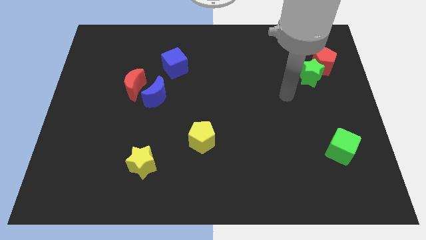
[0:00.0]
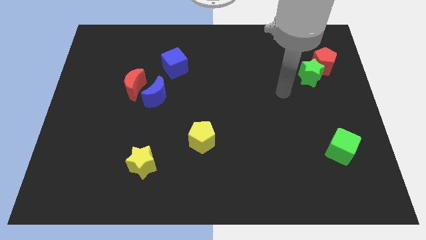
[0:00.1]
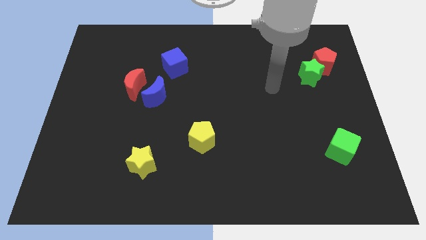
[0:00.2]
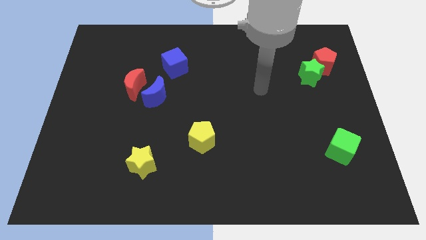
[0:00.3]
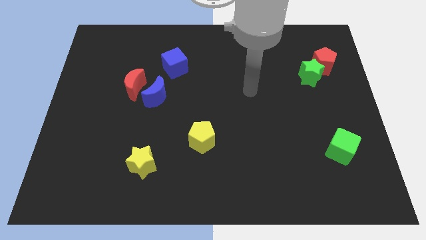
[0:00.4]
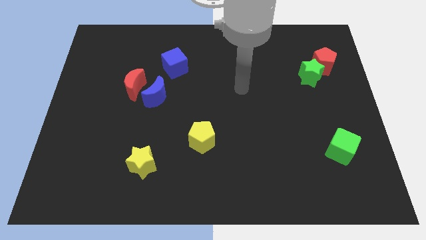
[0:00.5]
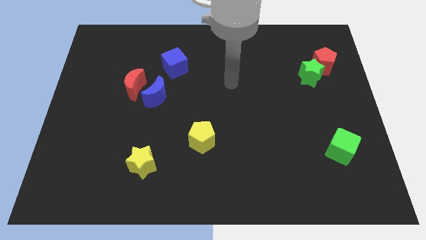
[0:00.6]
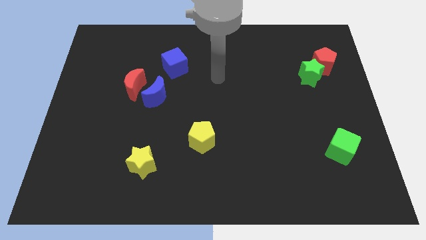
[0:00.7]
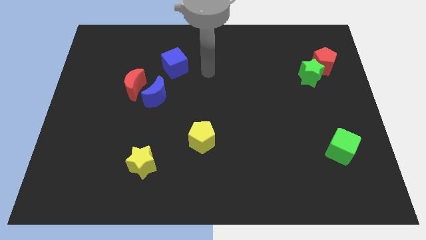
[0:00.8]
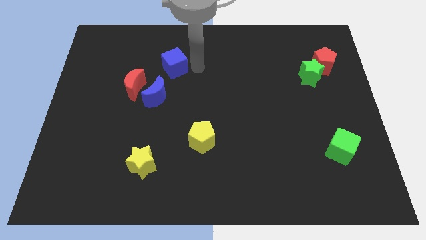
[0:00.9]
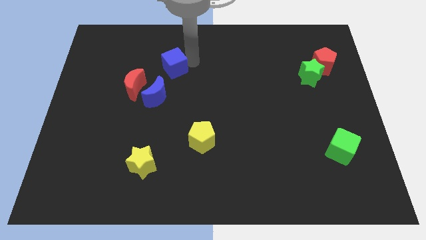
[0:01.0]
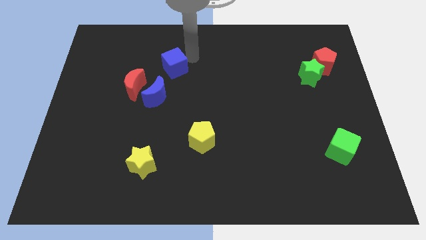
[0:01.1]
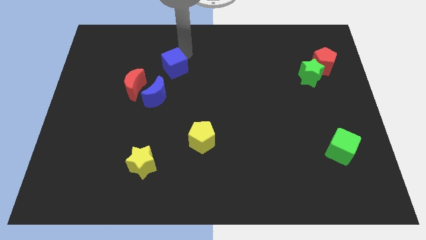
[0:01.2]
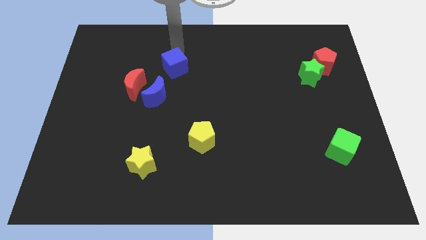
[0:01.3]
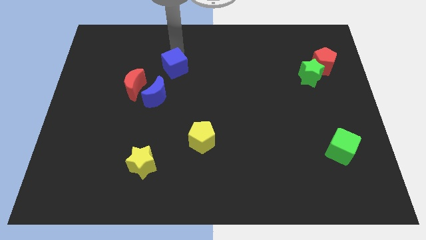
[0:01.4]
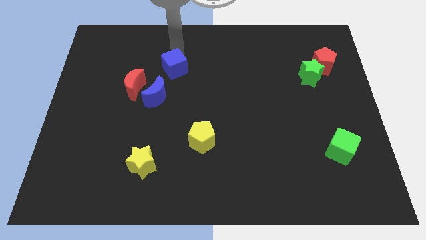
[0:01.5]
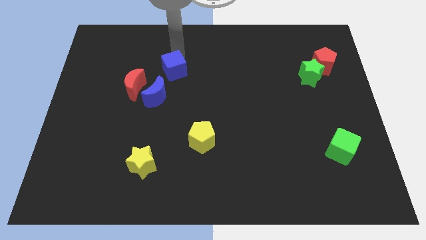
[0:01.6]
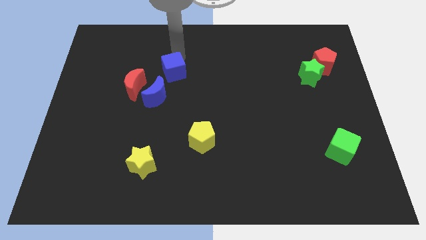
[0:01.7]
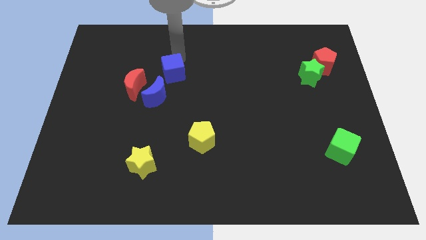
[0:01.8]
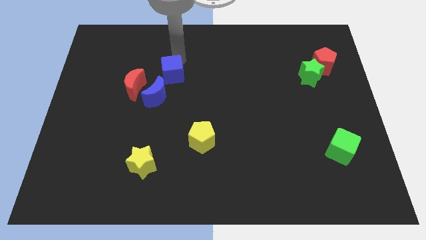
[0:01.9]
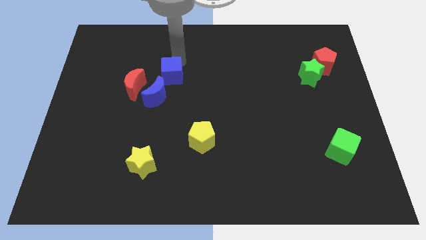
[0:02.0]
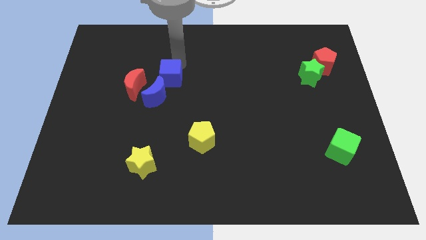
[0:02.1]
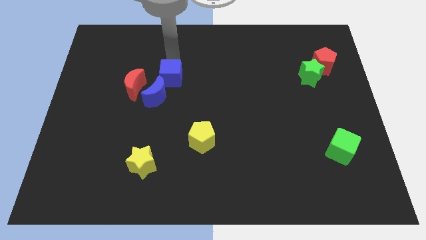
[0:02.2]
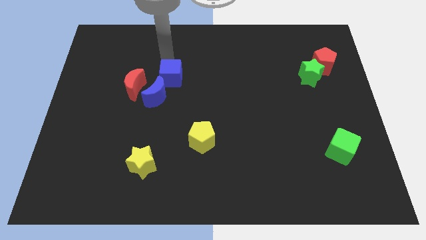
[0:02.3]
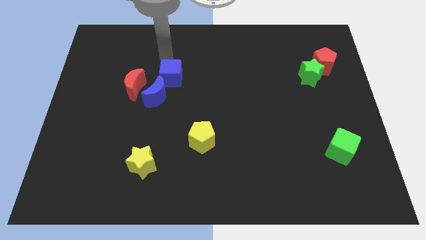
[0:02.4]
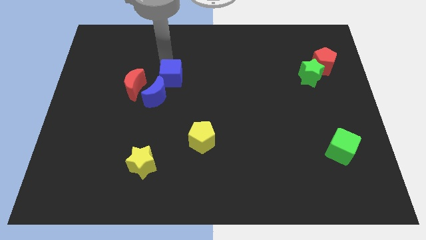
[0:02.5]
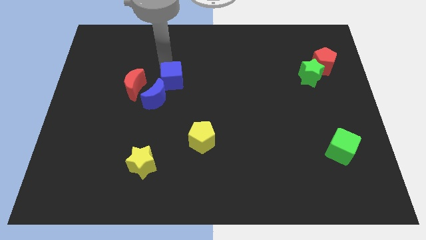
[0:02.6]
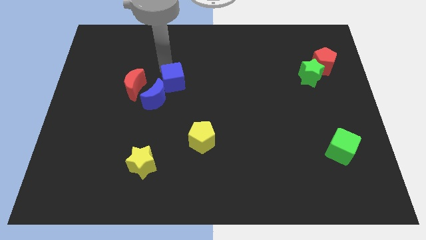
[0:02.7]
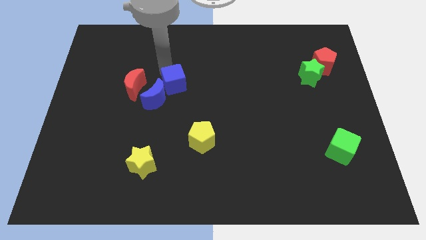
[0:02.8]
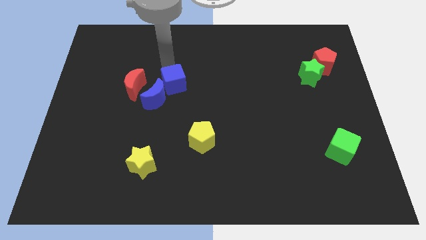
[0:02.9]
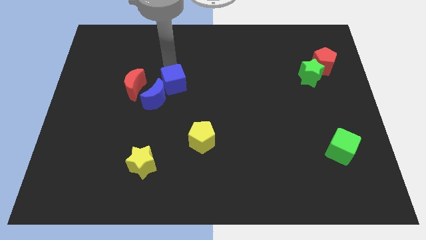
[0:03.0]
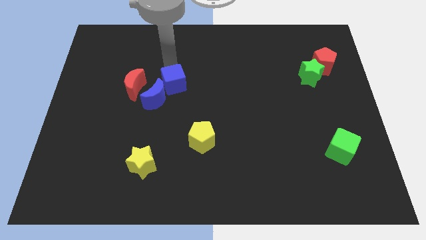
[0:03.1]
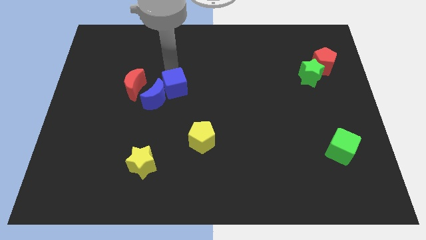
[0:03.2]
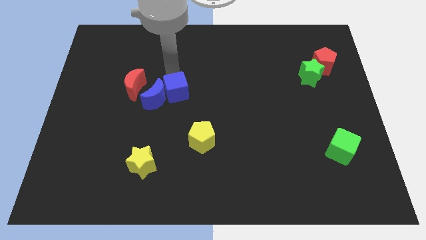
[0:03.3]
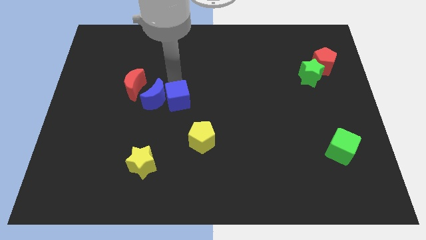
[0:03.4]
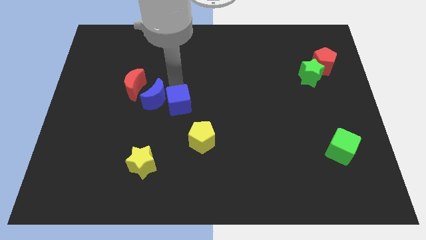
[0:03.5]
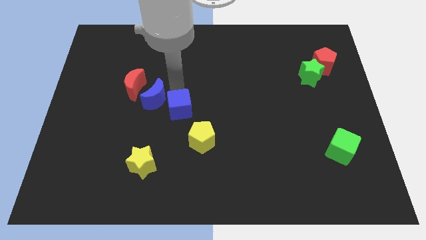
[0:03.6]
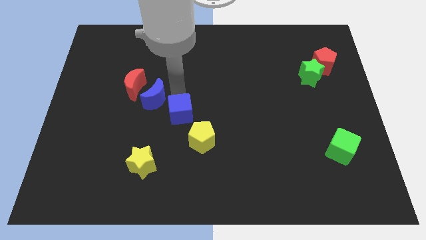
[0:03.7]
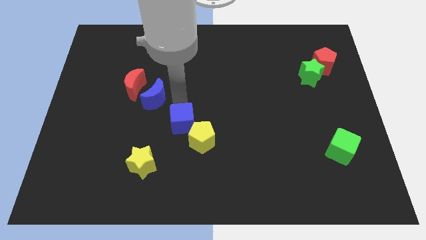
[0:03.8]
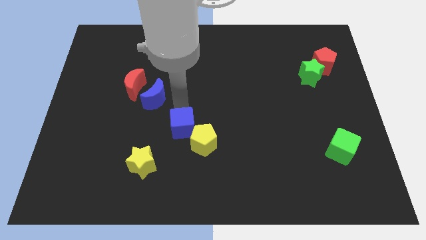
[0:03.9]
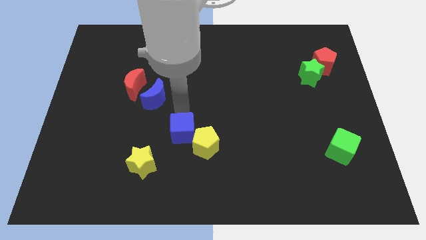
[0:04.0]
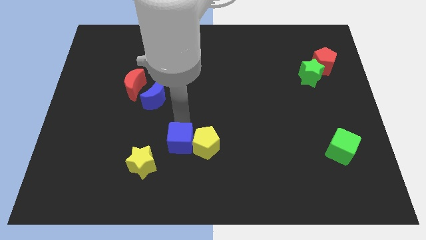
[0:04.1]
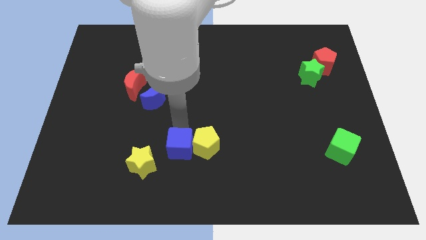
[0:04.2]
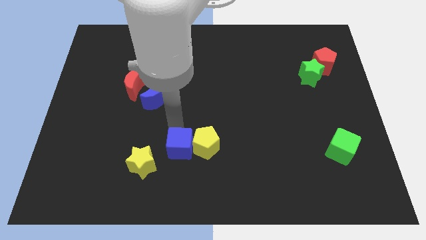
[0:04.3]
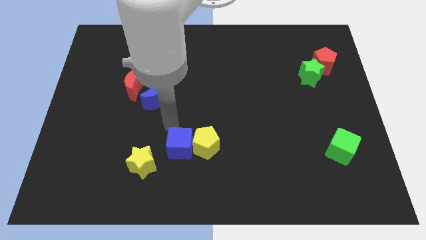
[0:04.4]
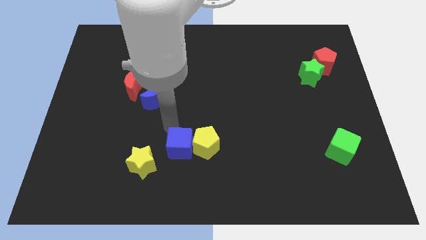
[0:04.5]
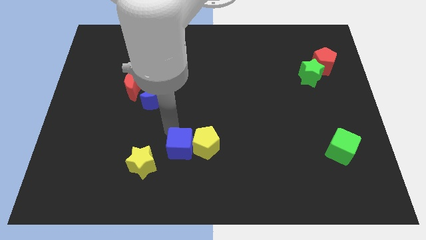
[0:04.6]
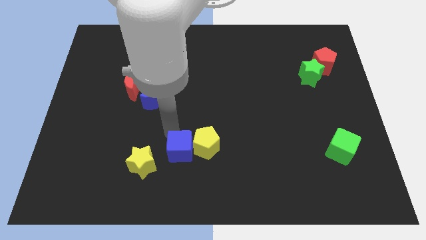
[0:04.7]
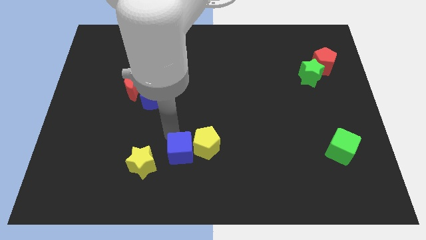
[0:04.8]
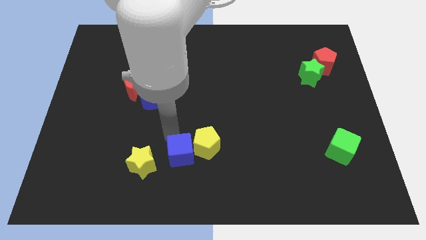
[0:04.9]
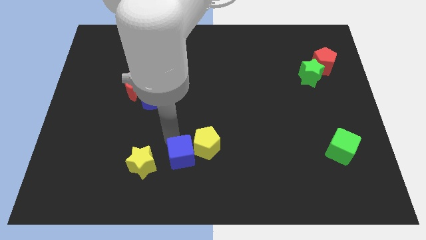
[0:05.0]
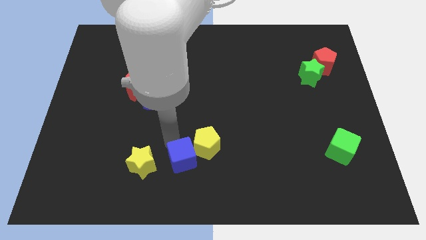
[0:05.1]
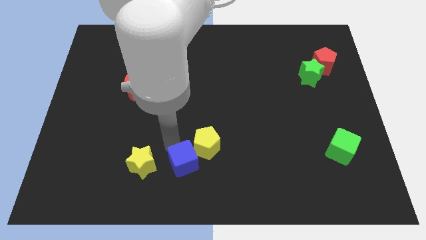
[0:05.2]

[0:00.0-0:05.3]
put the blue cube below the yellow pentagon

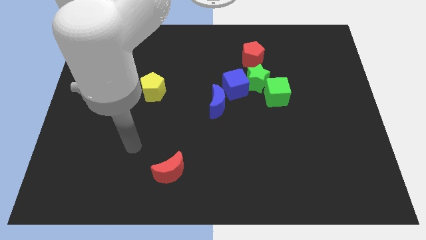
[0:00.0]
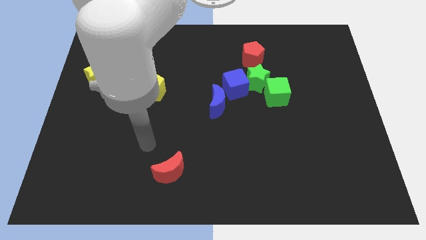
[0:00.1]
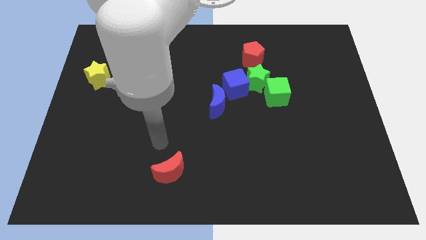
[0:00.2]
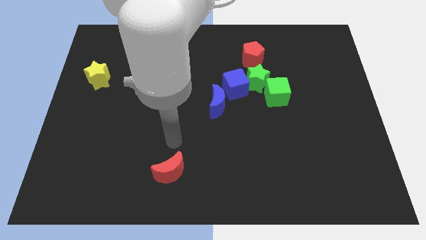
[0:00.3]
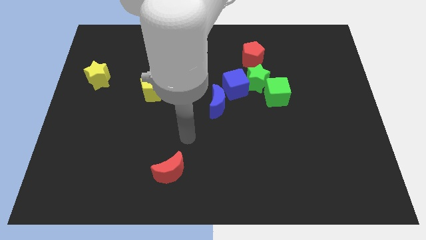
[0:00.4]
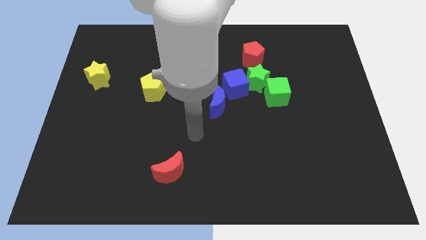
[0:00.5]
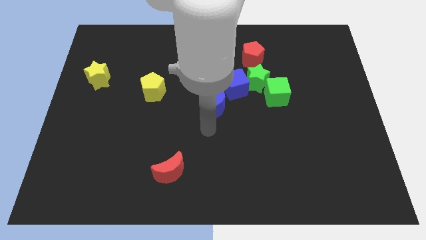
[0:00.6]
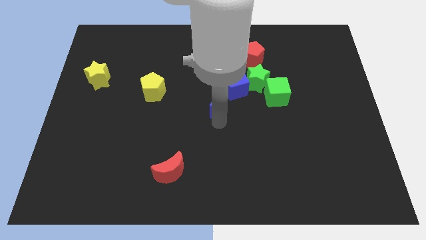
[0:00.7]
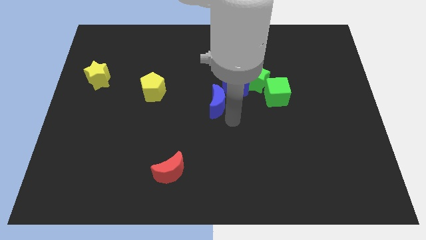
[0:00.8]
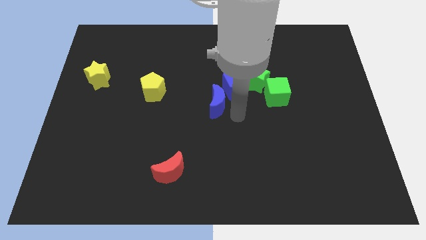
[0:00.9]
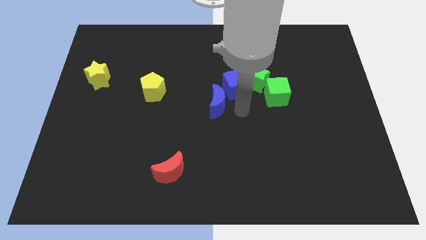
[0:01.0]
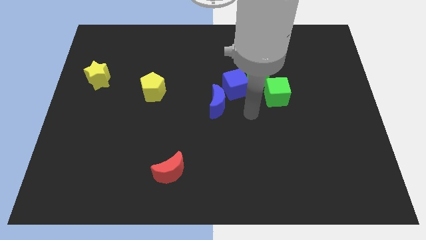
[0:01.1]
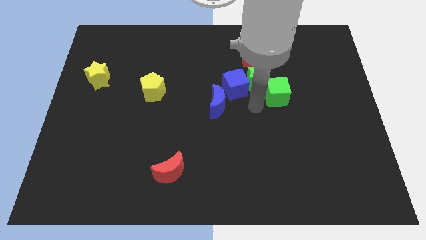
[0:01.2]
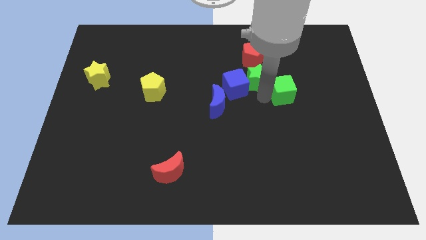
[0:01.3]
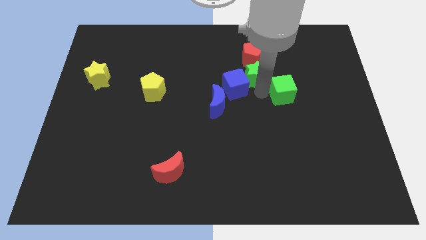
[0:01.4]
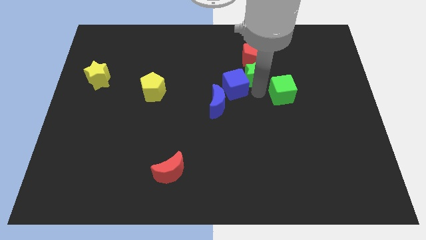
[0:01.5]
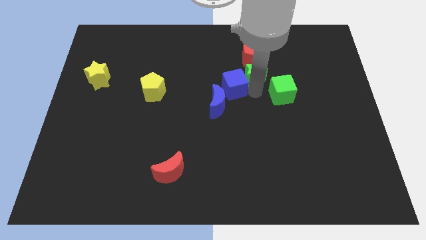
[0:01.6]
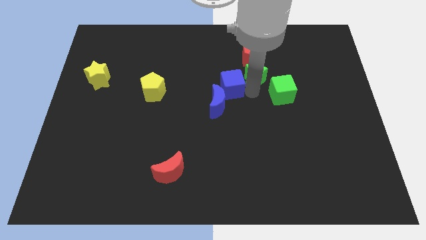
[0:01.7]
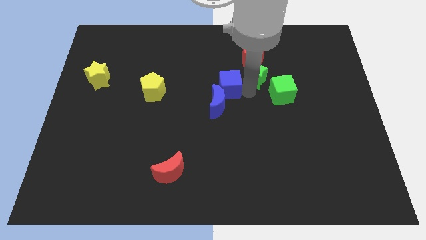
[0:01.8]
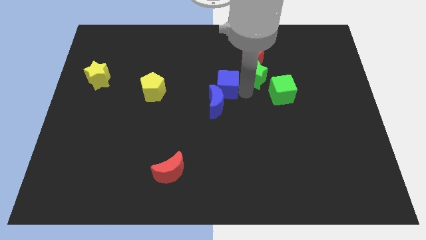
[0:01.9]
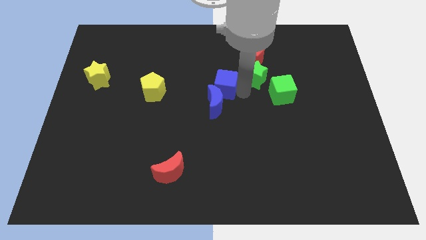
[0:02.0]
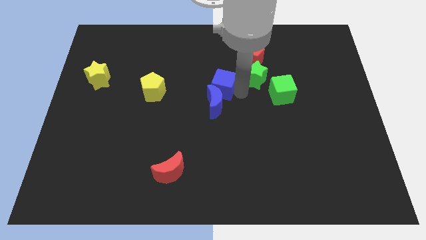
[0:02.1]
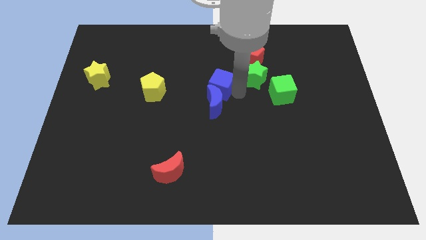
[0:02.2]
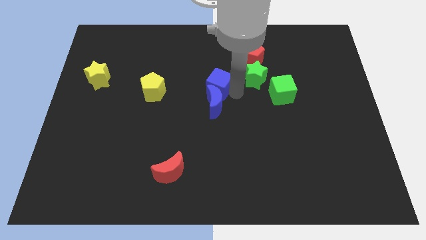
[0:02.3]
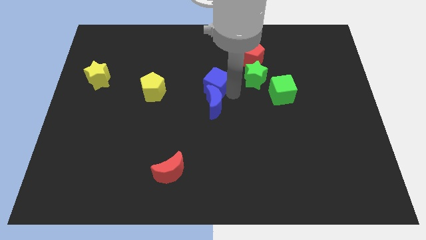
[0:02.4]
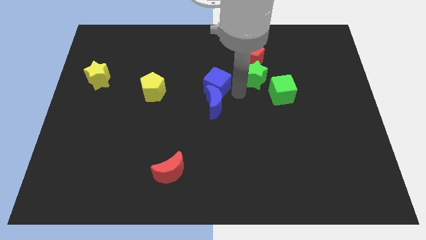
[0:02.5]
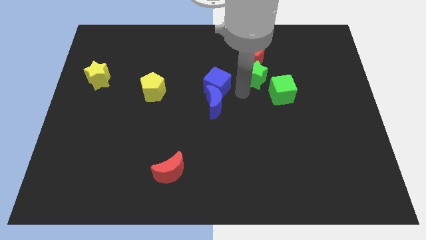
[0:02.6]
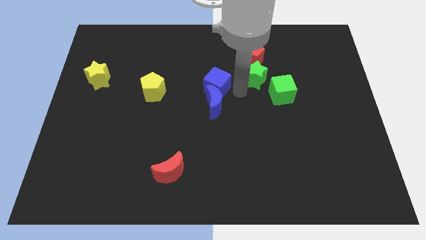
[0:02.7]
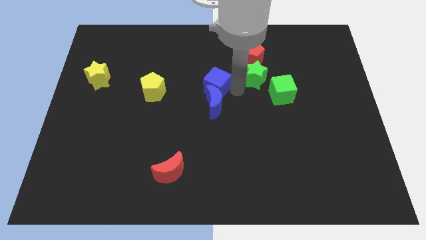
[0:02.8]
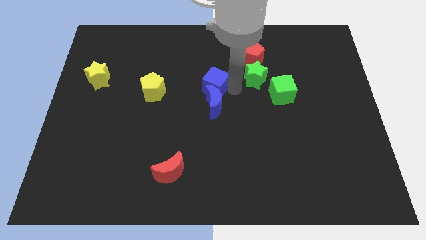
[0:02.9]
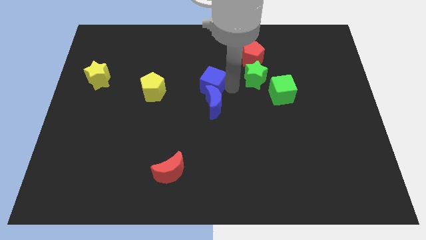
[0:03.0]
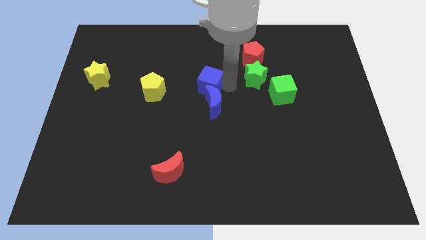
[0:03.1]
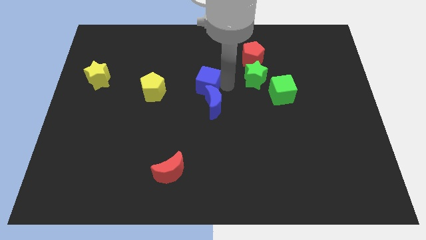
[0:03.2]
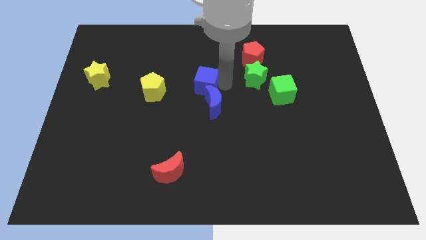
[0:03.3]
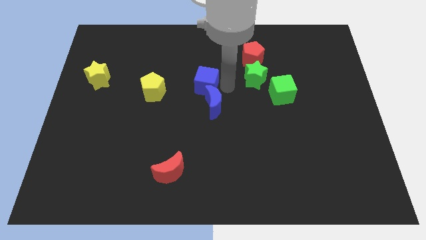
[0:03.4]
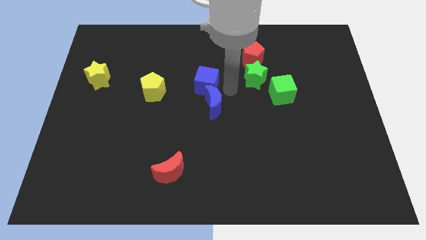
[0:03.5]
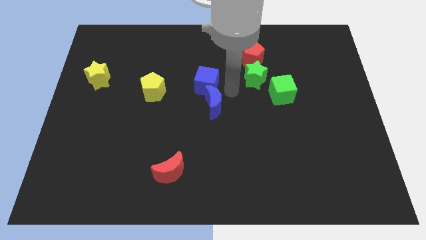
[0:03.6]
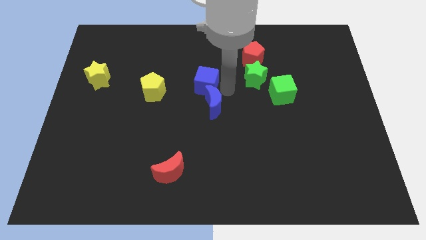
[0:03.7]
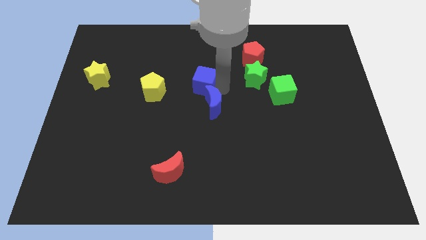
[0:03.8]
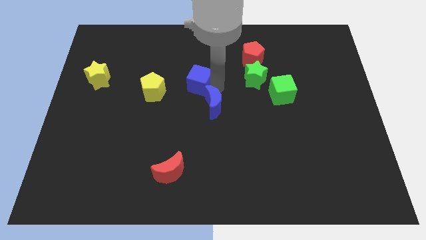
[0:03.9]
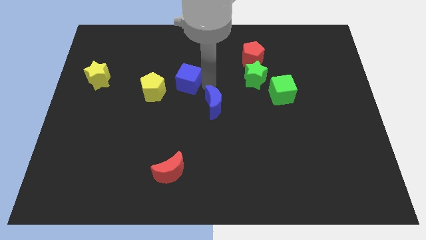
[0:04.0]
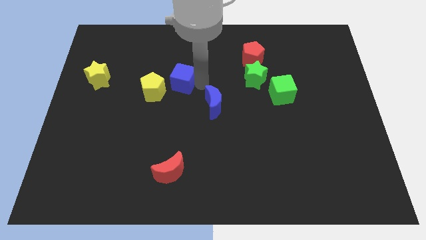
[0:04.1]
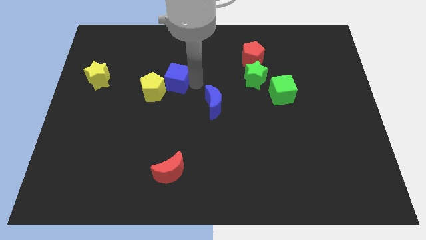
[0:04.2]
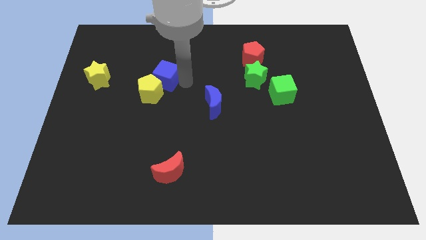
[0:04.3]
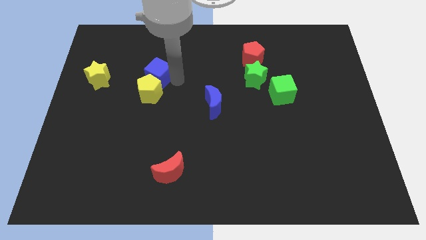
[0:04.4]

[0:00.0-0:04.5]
push the blue cube to the top left side of the yellow pentagon
